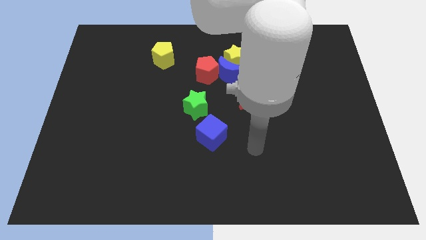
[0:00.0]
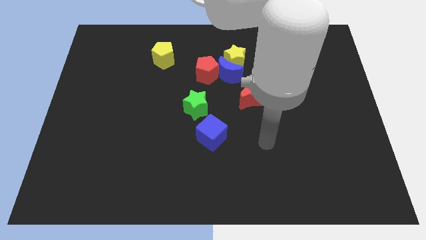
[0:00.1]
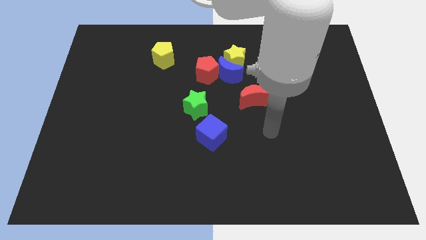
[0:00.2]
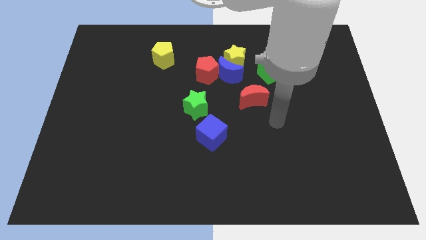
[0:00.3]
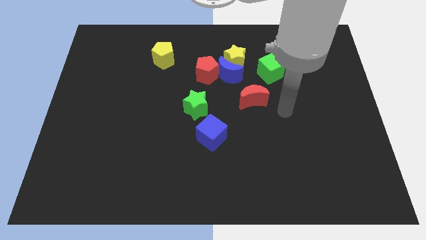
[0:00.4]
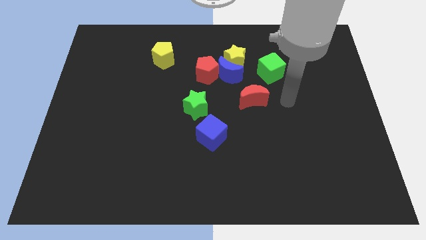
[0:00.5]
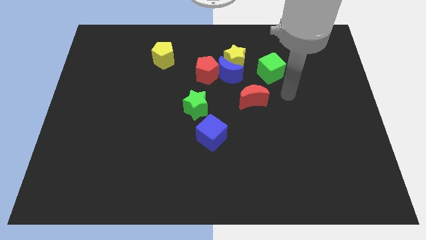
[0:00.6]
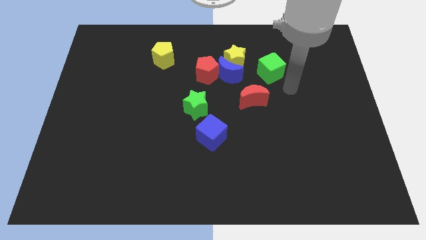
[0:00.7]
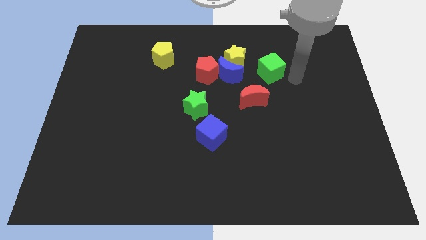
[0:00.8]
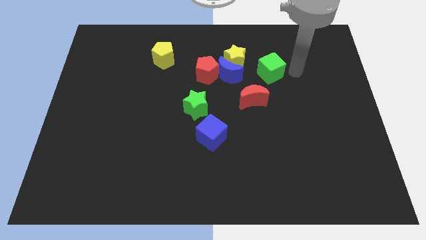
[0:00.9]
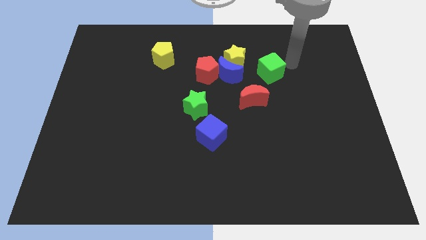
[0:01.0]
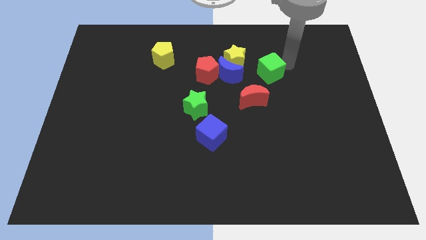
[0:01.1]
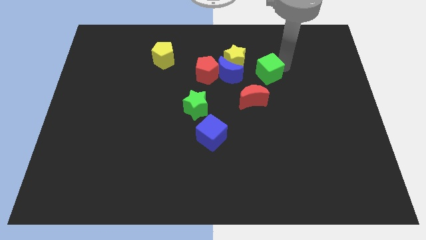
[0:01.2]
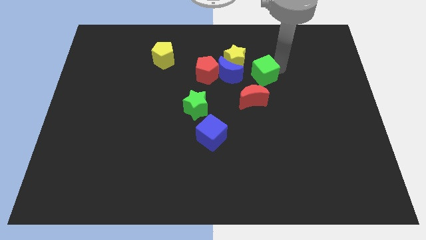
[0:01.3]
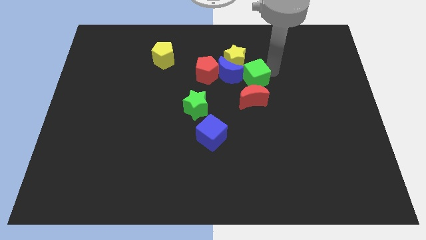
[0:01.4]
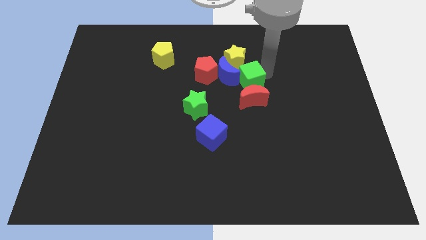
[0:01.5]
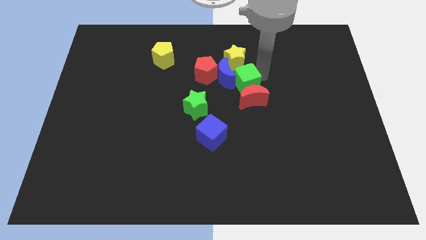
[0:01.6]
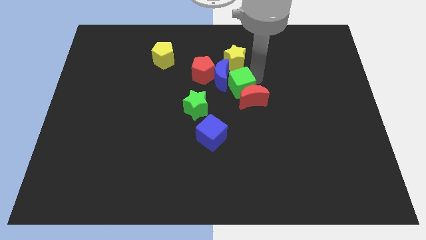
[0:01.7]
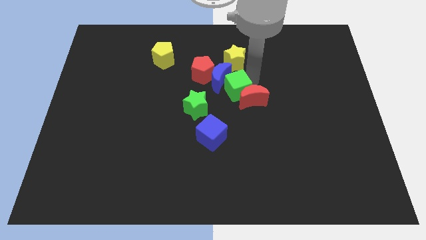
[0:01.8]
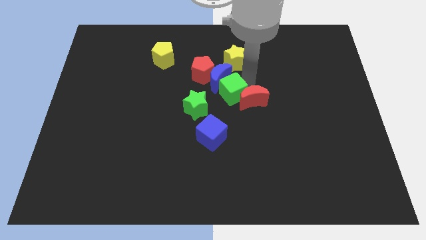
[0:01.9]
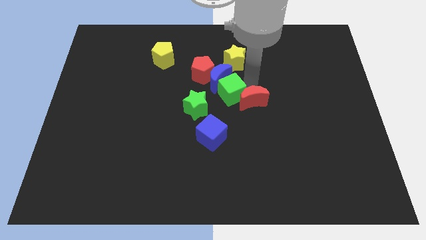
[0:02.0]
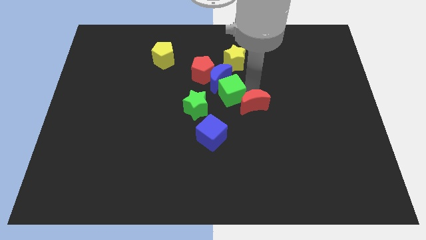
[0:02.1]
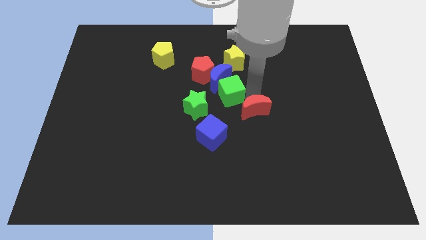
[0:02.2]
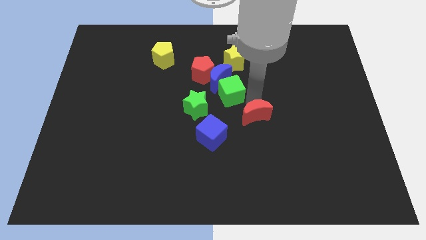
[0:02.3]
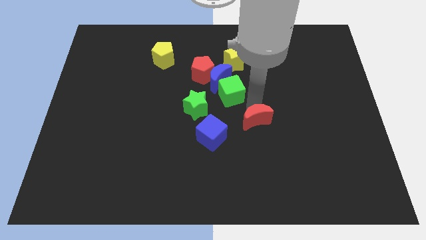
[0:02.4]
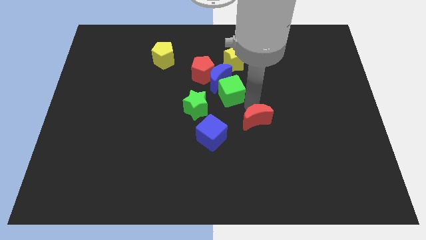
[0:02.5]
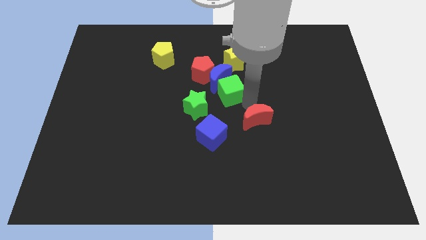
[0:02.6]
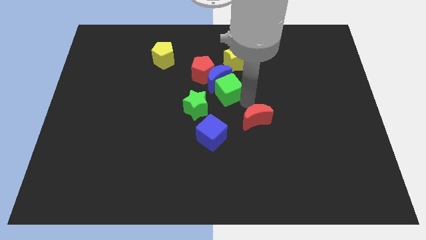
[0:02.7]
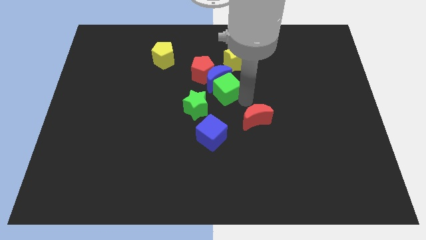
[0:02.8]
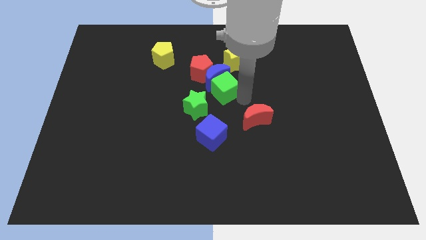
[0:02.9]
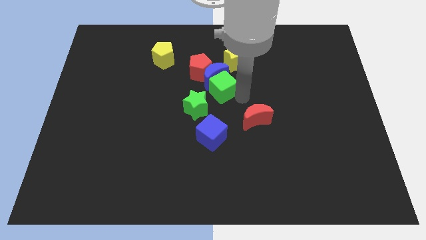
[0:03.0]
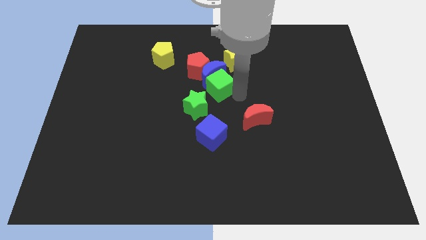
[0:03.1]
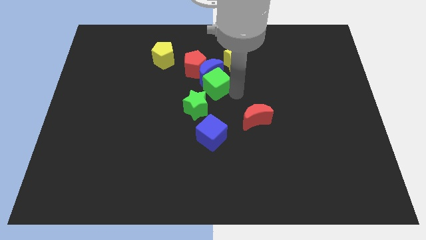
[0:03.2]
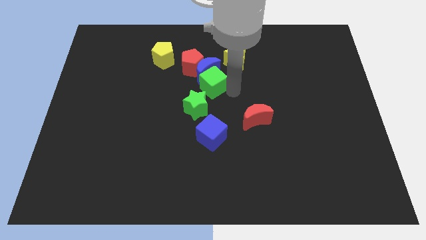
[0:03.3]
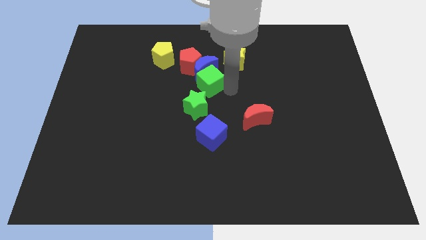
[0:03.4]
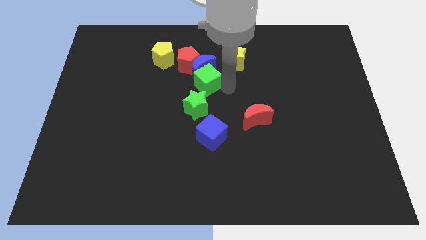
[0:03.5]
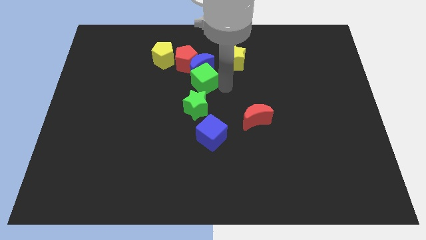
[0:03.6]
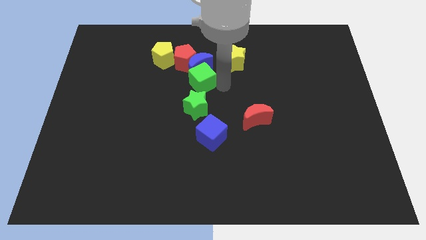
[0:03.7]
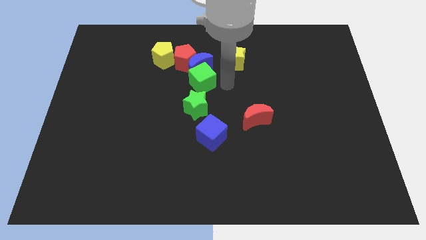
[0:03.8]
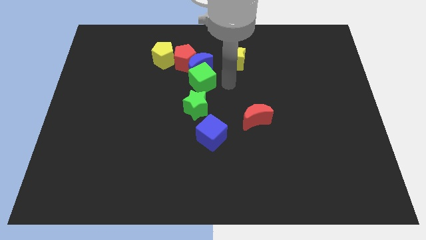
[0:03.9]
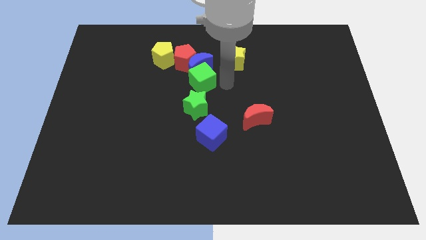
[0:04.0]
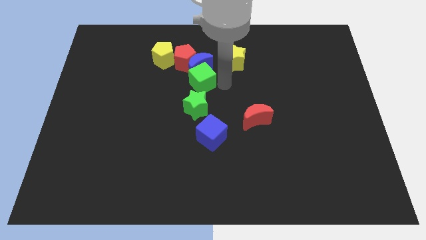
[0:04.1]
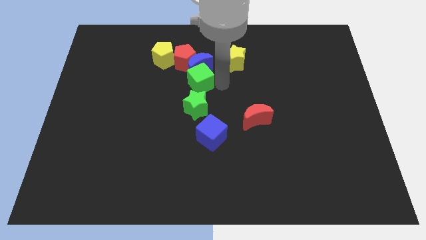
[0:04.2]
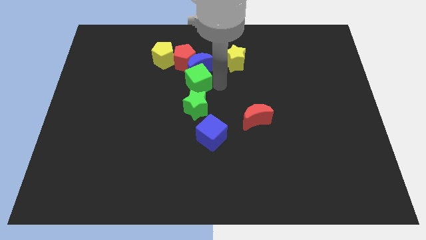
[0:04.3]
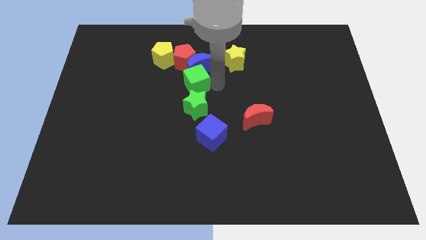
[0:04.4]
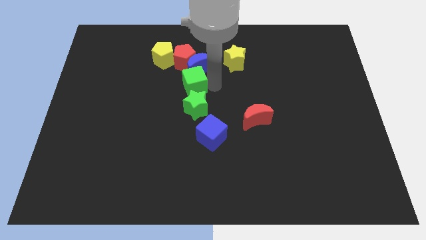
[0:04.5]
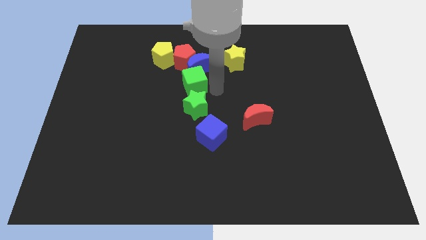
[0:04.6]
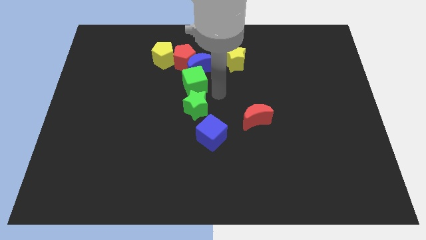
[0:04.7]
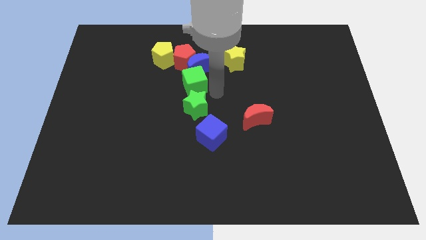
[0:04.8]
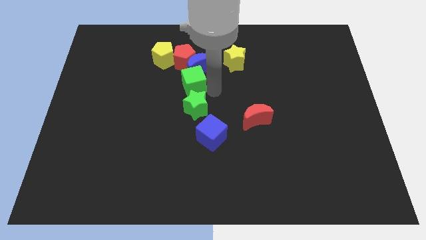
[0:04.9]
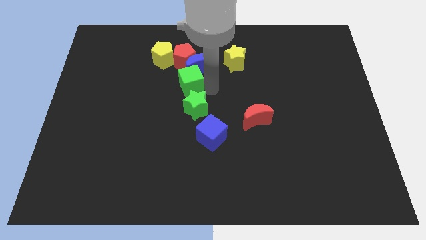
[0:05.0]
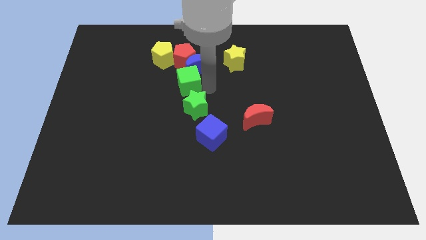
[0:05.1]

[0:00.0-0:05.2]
push the green cube left

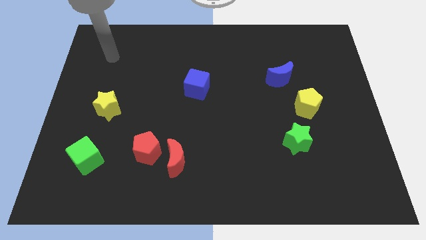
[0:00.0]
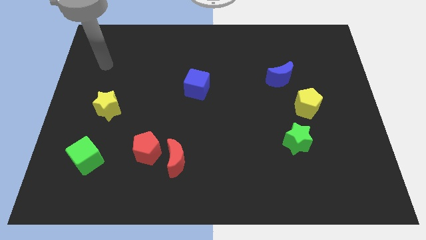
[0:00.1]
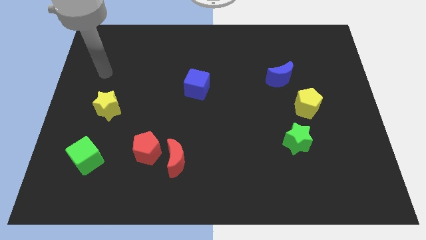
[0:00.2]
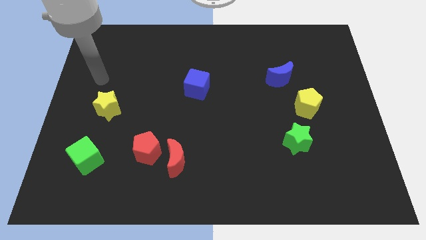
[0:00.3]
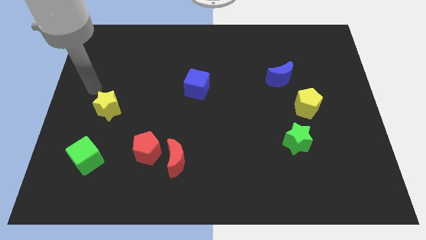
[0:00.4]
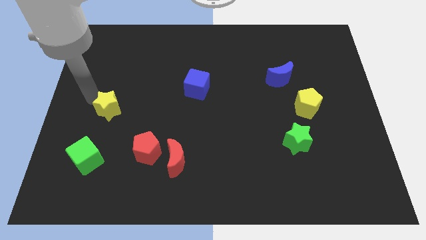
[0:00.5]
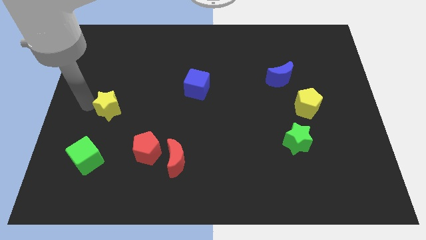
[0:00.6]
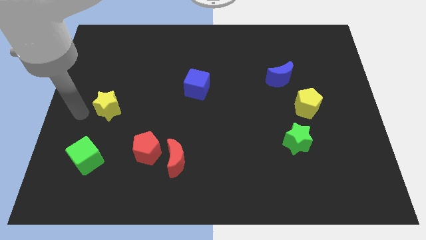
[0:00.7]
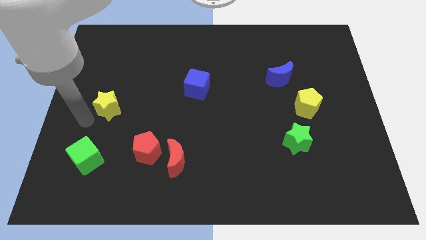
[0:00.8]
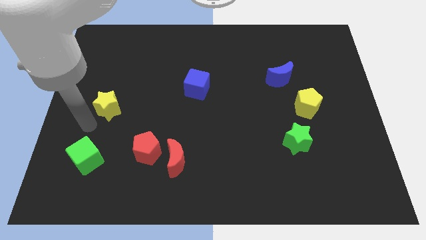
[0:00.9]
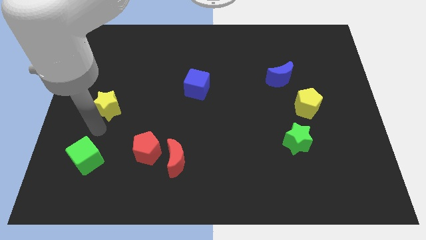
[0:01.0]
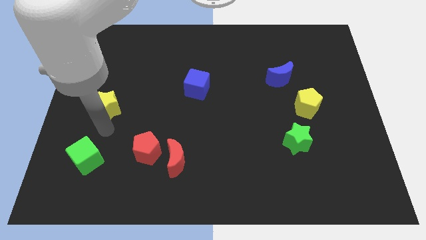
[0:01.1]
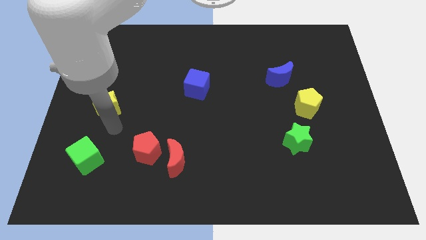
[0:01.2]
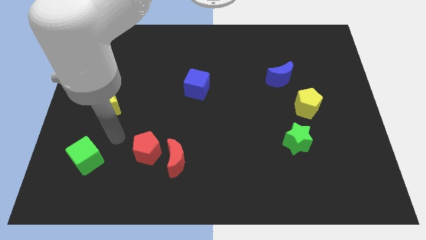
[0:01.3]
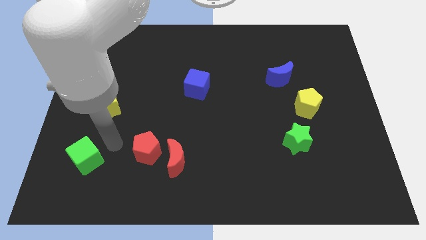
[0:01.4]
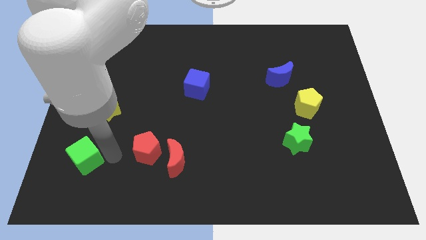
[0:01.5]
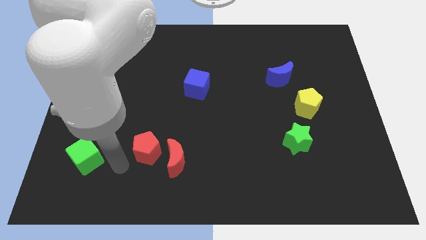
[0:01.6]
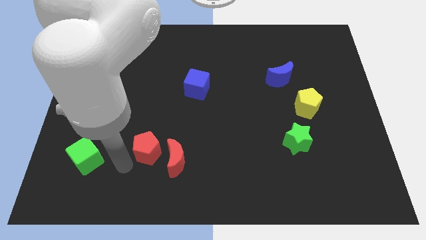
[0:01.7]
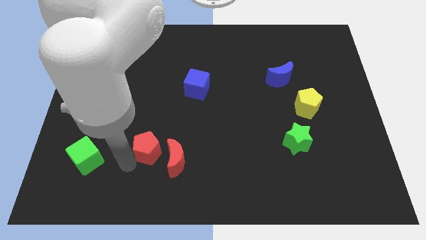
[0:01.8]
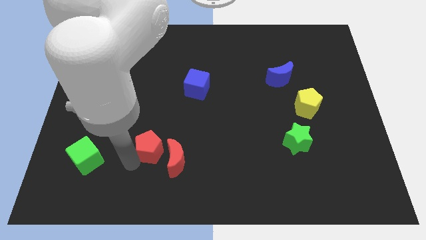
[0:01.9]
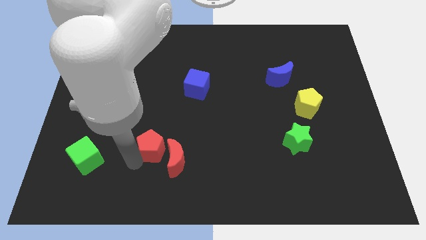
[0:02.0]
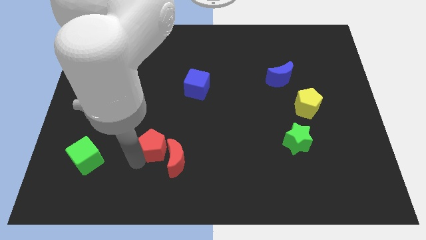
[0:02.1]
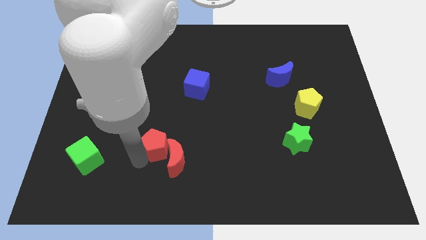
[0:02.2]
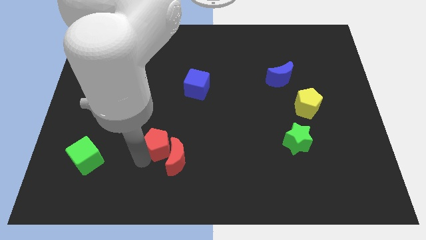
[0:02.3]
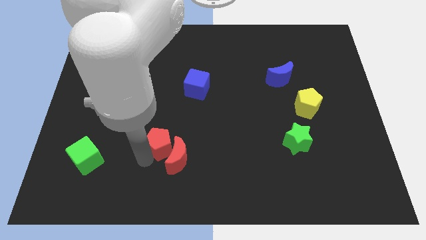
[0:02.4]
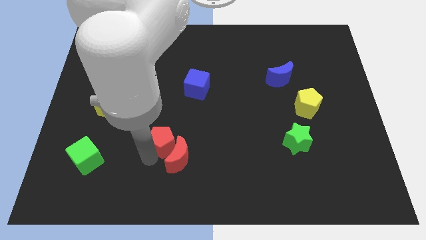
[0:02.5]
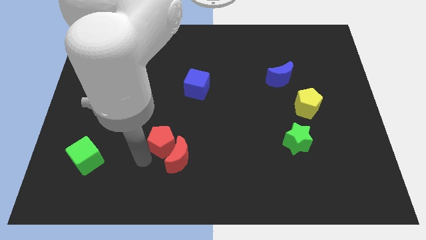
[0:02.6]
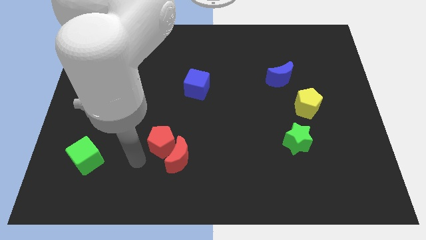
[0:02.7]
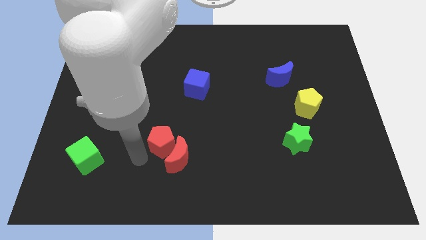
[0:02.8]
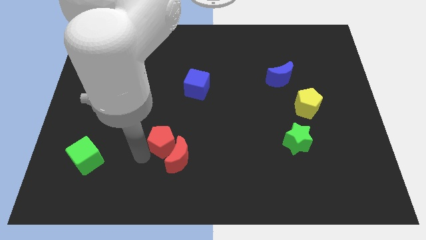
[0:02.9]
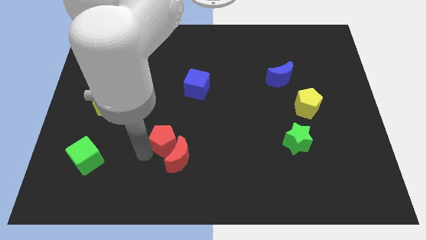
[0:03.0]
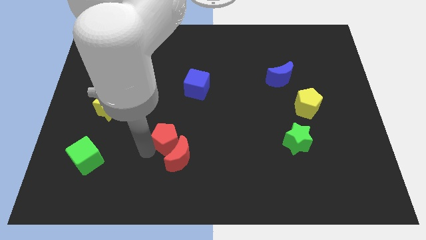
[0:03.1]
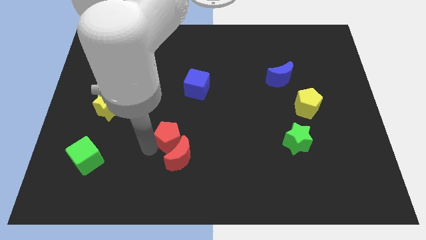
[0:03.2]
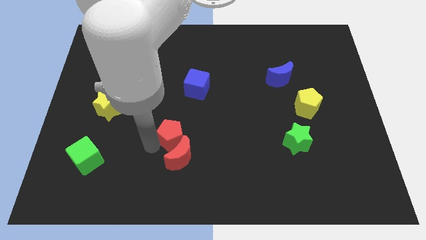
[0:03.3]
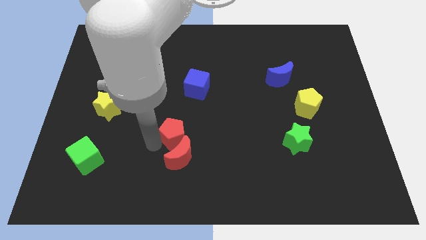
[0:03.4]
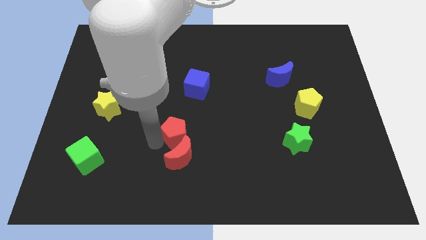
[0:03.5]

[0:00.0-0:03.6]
slide the red pentagon somewhat diagonally upwards and right
